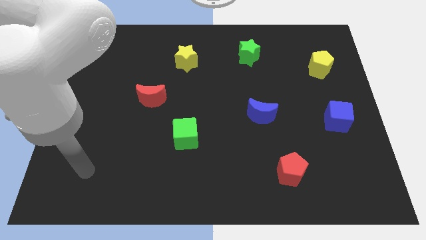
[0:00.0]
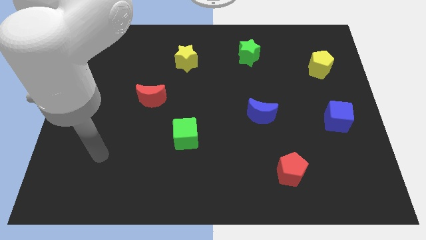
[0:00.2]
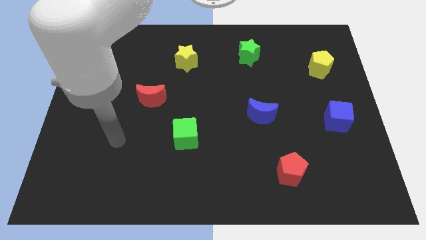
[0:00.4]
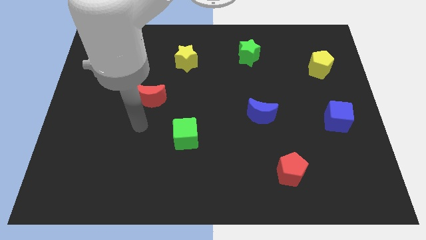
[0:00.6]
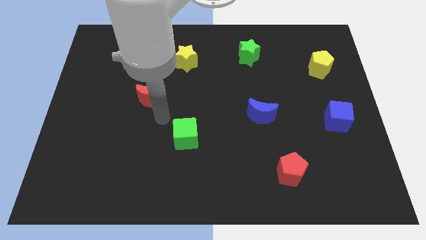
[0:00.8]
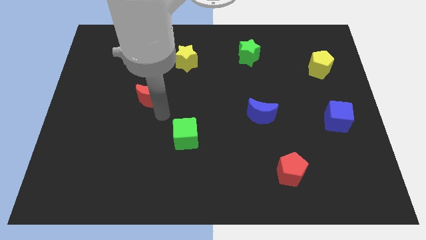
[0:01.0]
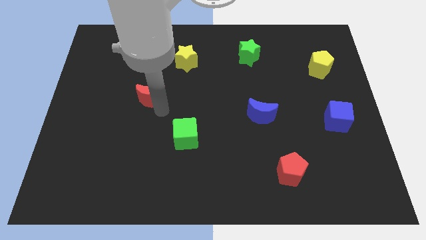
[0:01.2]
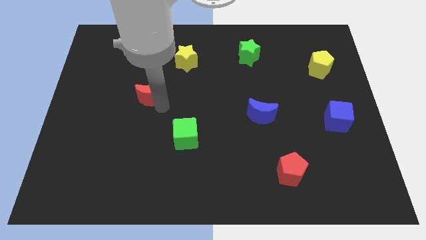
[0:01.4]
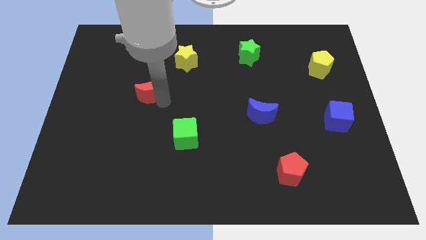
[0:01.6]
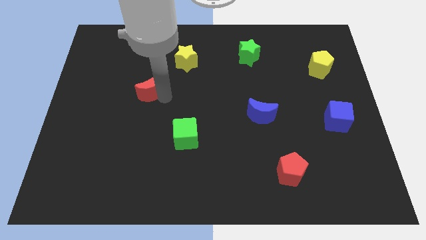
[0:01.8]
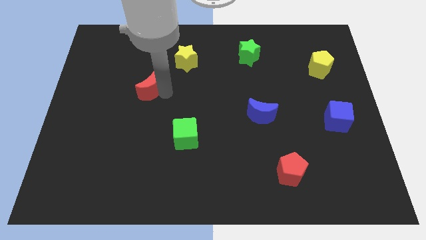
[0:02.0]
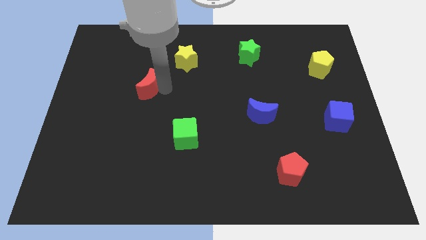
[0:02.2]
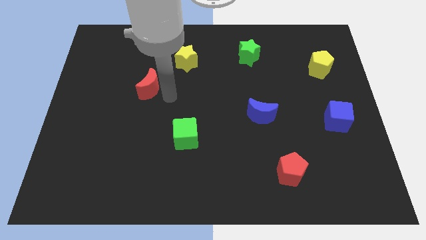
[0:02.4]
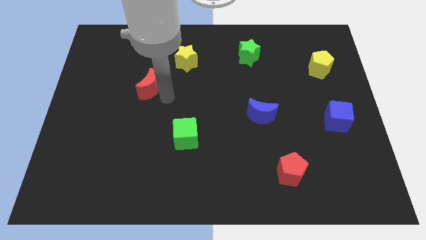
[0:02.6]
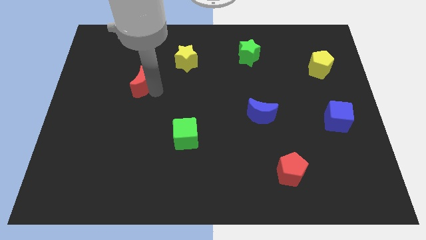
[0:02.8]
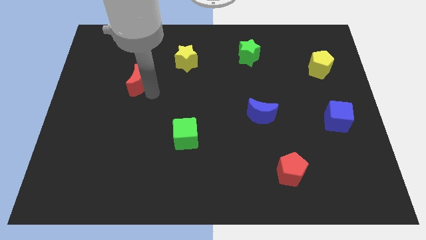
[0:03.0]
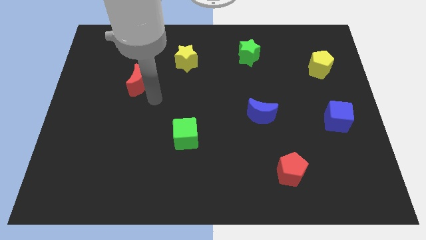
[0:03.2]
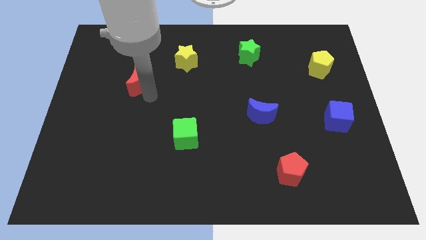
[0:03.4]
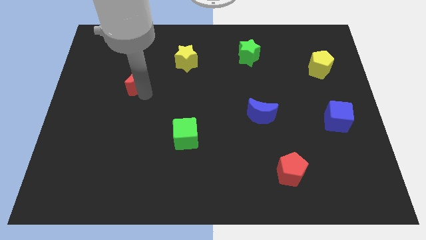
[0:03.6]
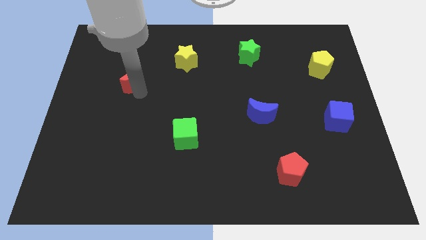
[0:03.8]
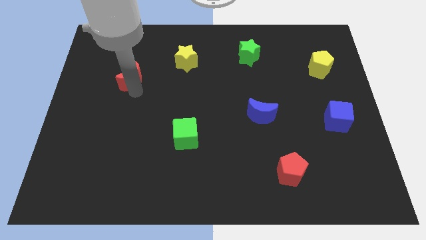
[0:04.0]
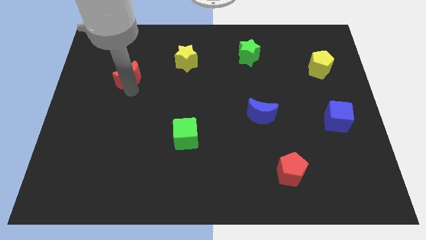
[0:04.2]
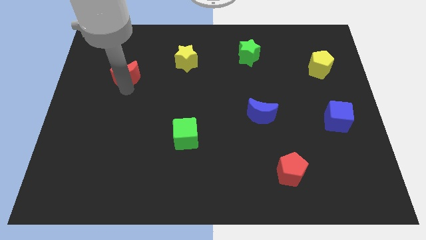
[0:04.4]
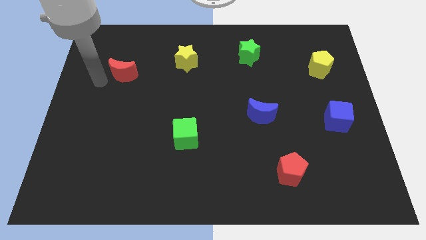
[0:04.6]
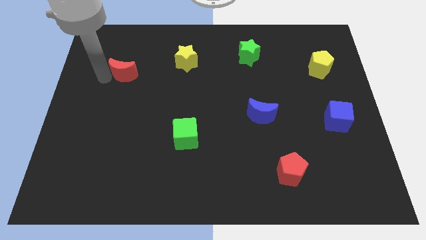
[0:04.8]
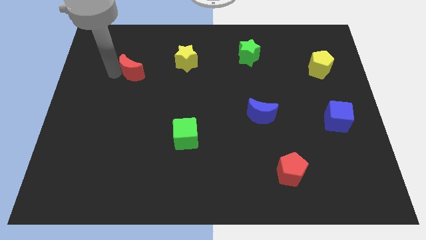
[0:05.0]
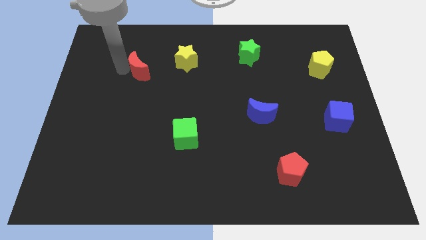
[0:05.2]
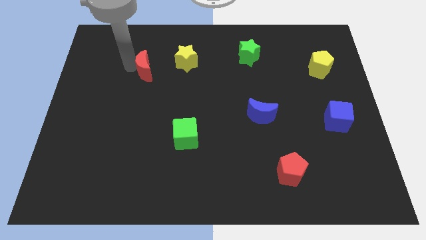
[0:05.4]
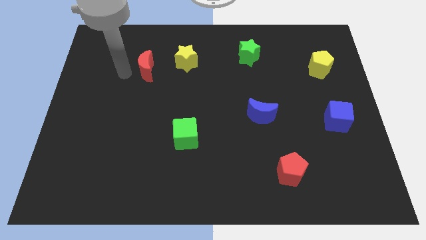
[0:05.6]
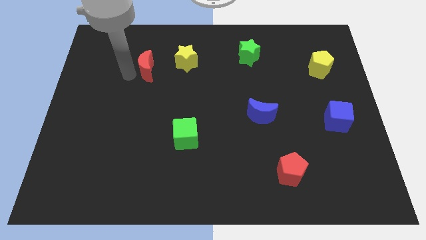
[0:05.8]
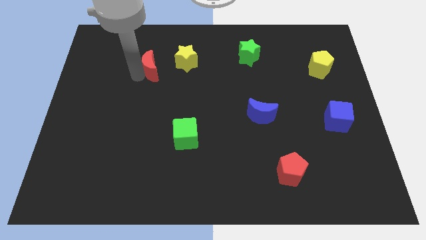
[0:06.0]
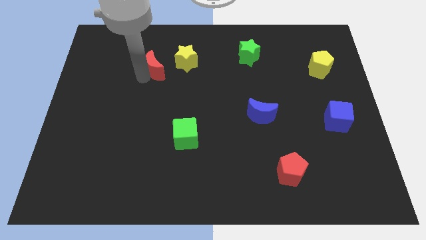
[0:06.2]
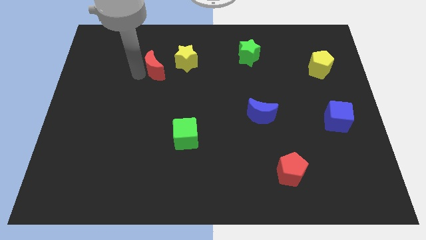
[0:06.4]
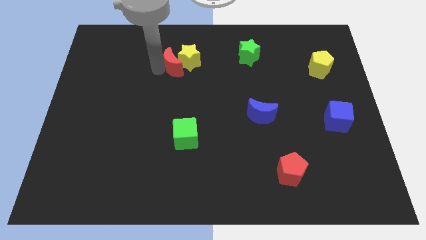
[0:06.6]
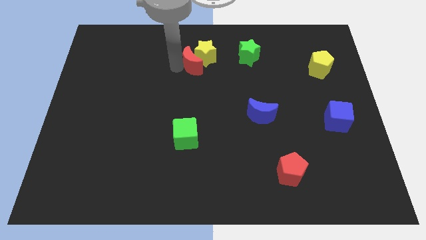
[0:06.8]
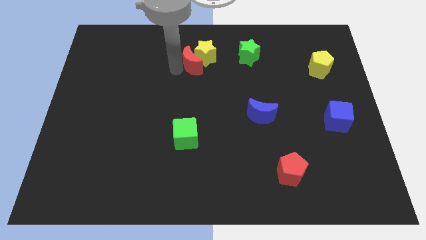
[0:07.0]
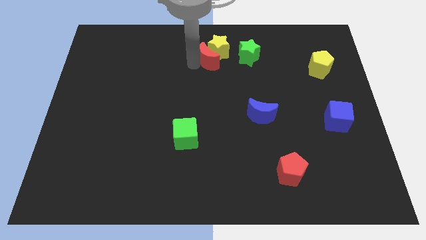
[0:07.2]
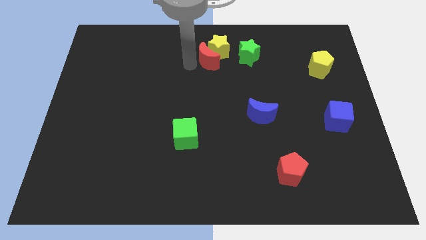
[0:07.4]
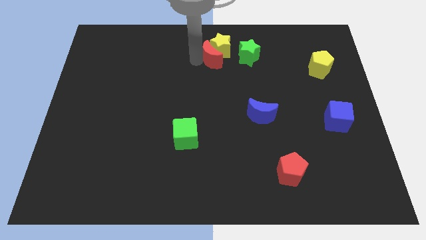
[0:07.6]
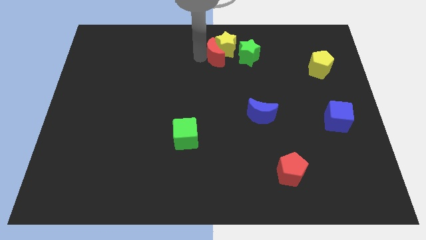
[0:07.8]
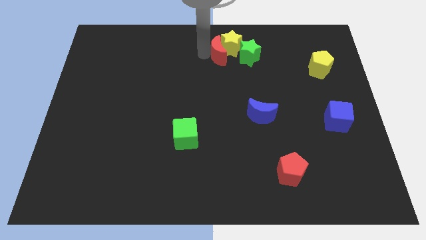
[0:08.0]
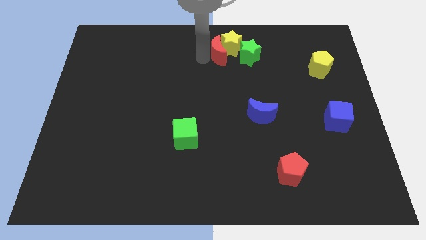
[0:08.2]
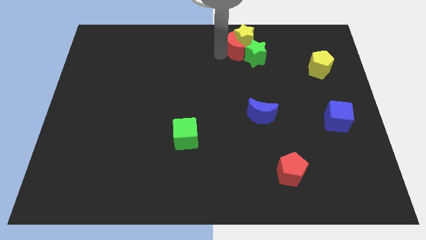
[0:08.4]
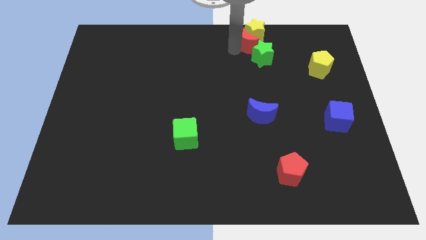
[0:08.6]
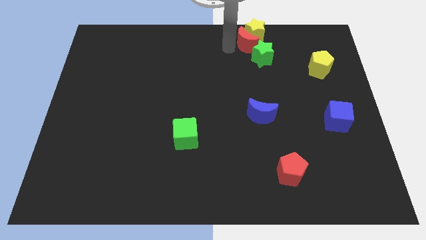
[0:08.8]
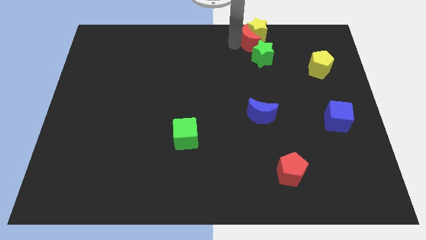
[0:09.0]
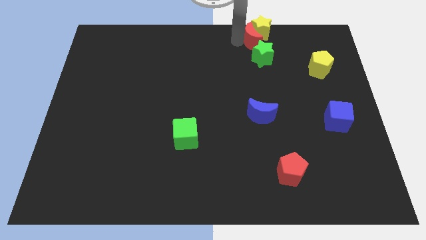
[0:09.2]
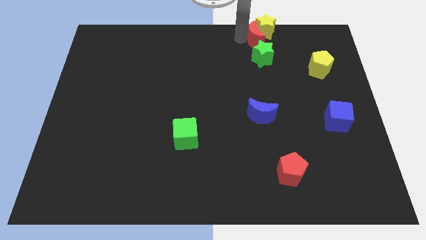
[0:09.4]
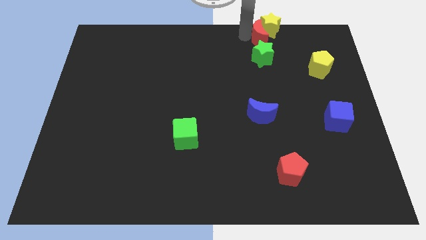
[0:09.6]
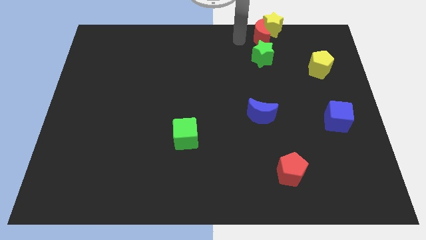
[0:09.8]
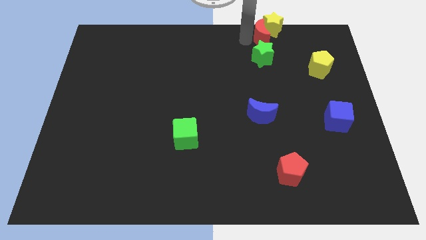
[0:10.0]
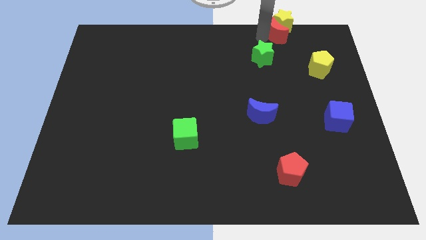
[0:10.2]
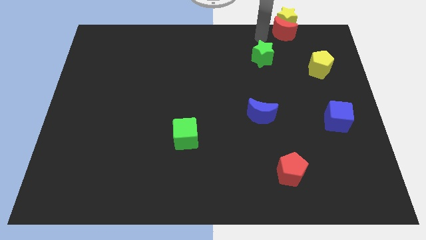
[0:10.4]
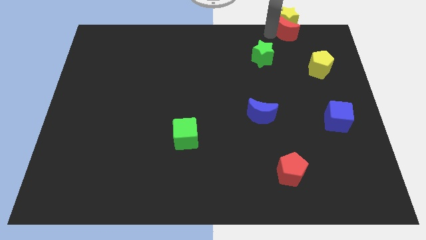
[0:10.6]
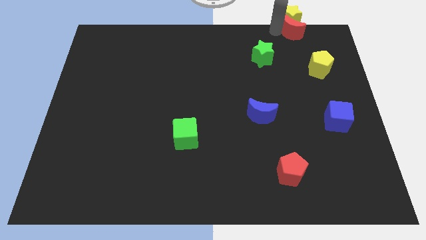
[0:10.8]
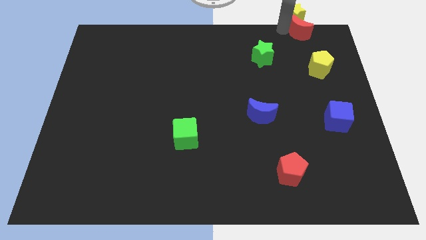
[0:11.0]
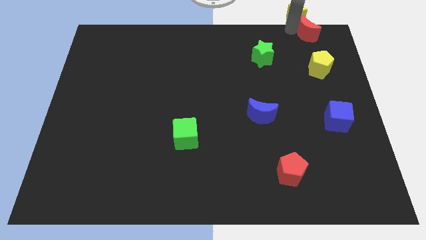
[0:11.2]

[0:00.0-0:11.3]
push the red moon to the top right corner
